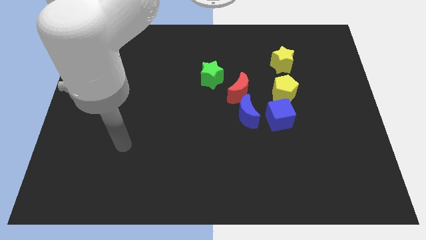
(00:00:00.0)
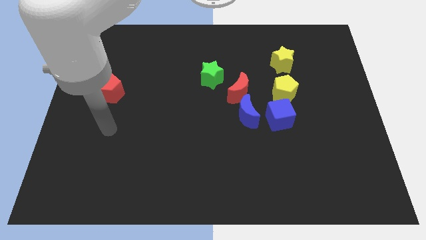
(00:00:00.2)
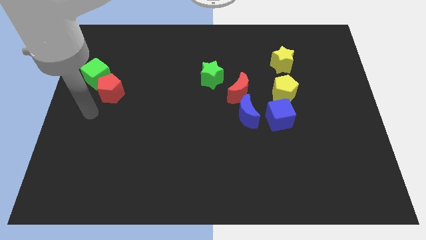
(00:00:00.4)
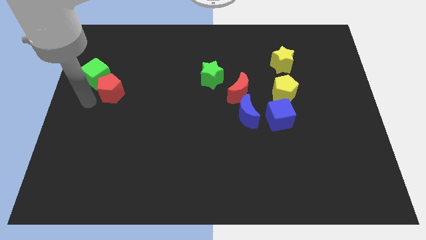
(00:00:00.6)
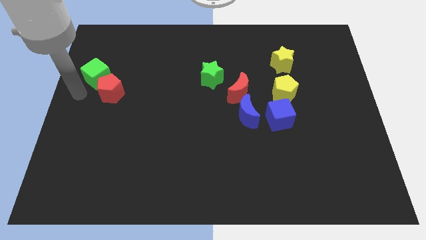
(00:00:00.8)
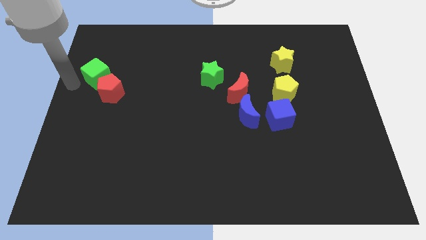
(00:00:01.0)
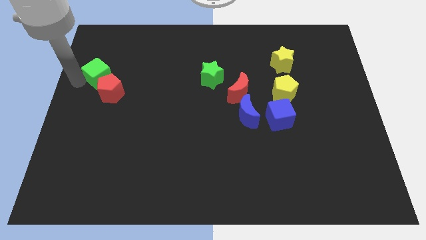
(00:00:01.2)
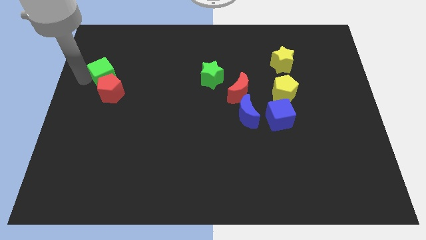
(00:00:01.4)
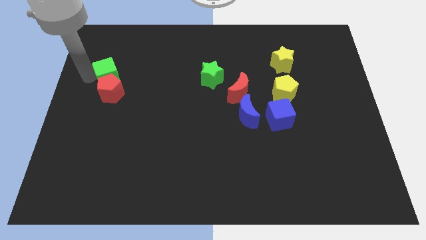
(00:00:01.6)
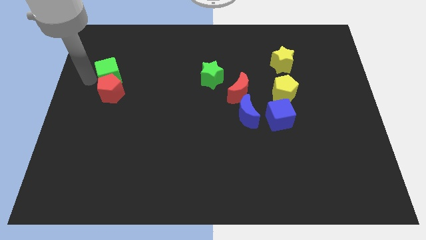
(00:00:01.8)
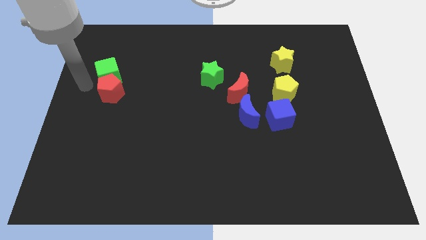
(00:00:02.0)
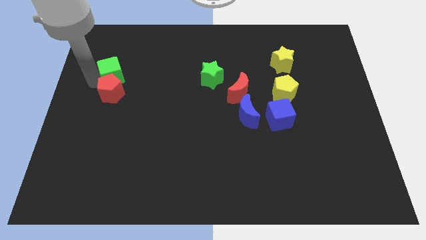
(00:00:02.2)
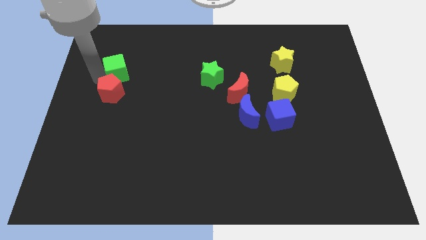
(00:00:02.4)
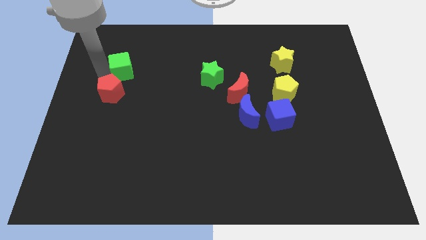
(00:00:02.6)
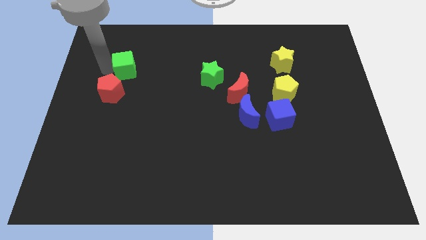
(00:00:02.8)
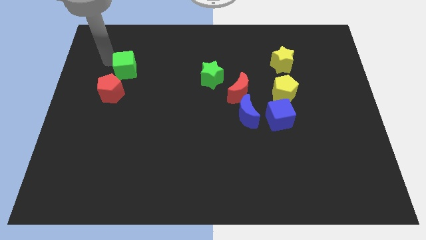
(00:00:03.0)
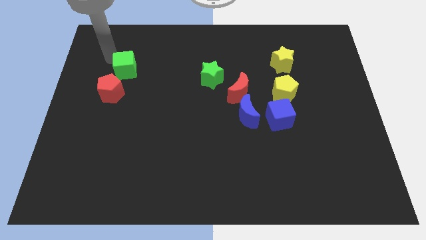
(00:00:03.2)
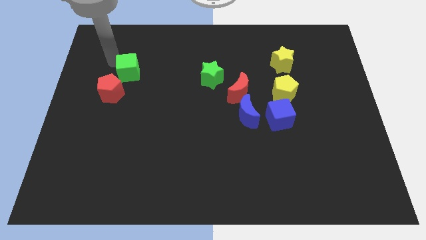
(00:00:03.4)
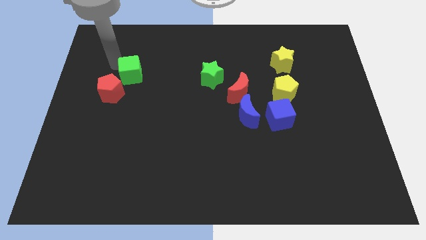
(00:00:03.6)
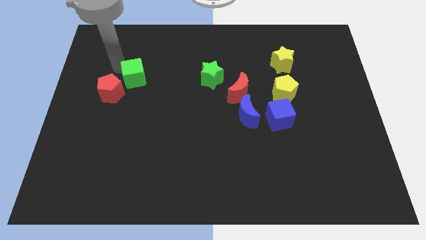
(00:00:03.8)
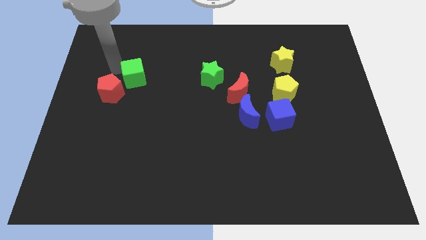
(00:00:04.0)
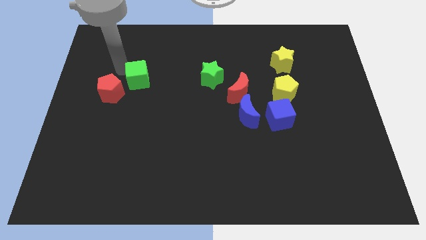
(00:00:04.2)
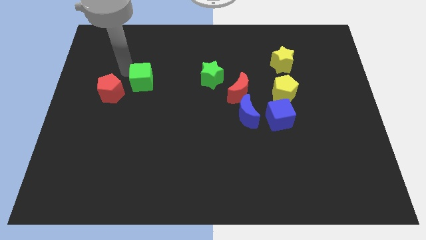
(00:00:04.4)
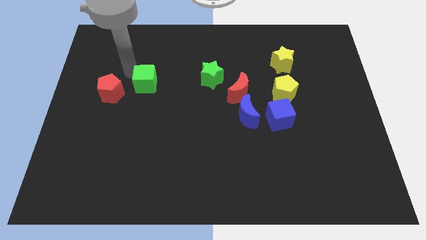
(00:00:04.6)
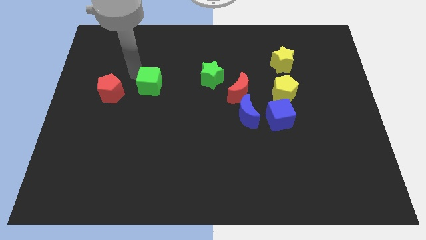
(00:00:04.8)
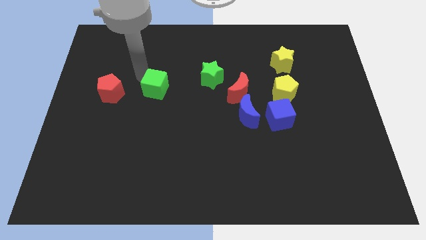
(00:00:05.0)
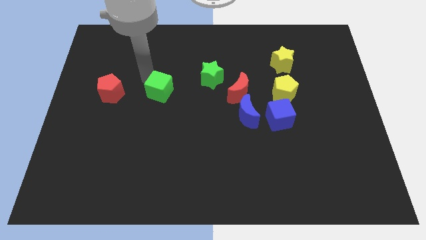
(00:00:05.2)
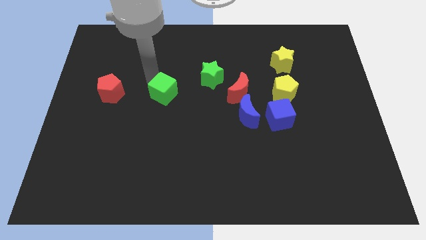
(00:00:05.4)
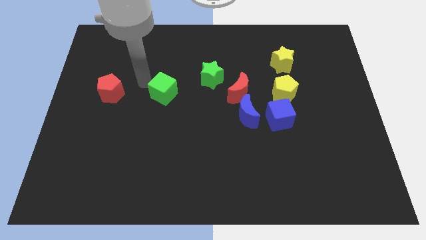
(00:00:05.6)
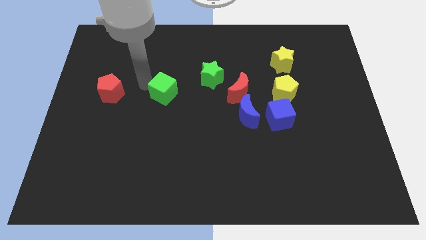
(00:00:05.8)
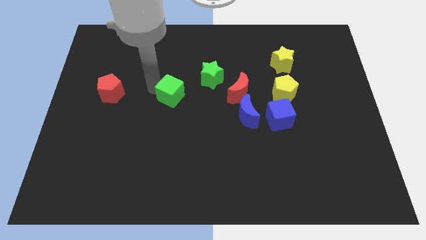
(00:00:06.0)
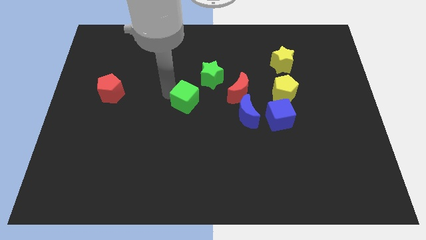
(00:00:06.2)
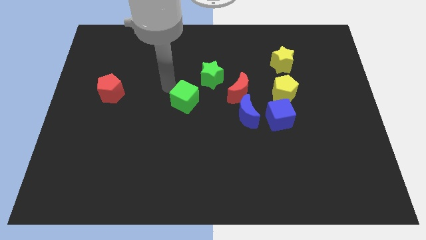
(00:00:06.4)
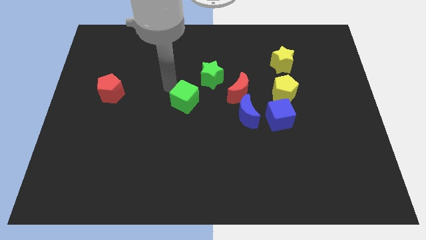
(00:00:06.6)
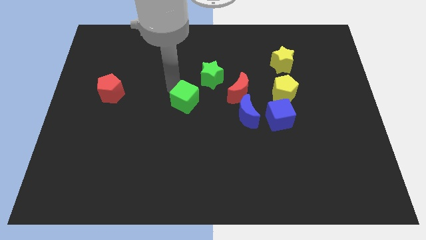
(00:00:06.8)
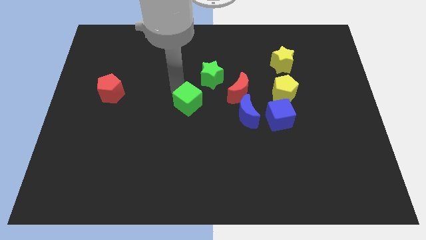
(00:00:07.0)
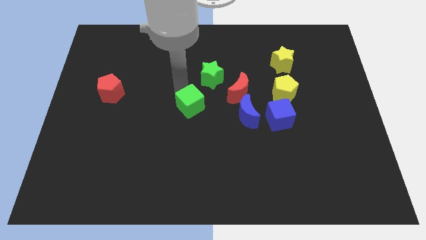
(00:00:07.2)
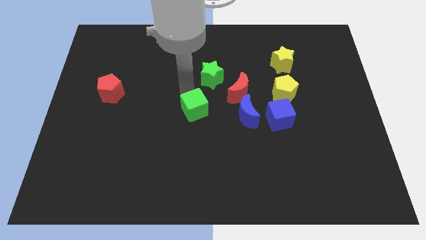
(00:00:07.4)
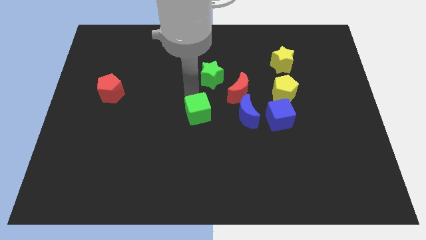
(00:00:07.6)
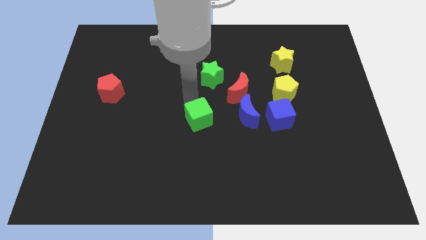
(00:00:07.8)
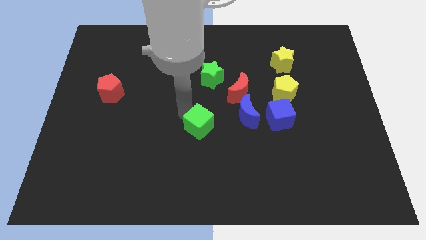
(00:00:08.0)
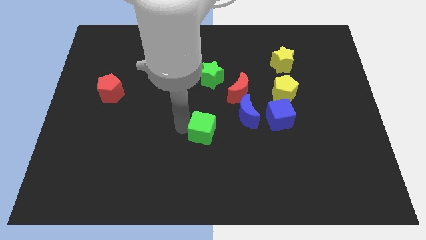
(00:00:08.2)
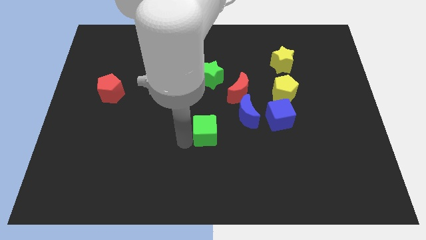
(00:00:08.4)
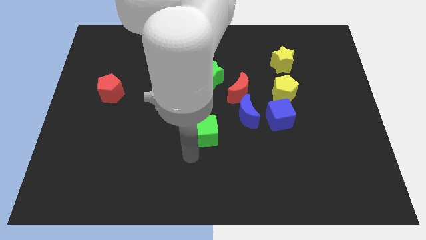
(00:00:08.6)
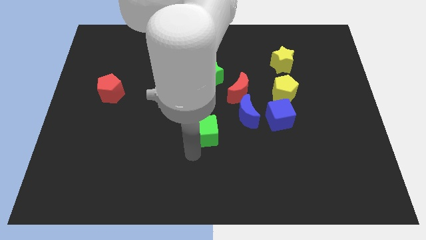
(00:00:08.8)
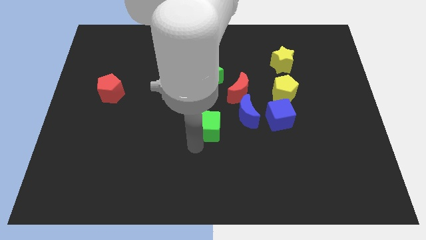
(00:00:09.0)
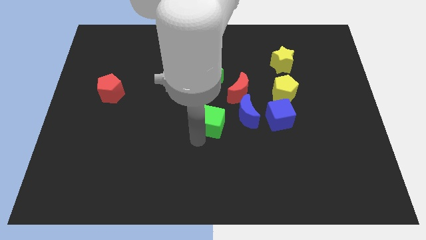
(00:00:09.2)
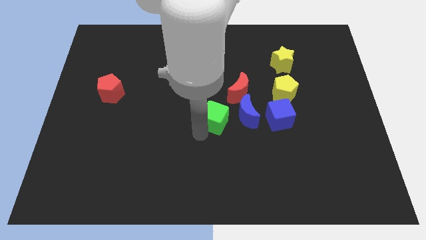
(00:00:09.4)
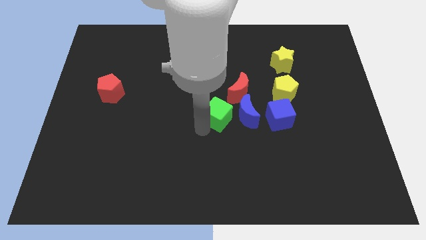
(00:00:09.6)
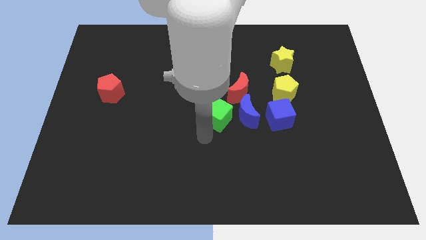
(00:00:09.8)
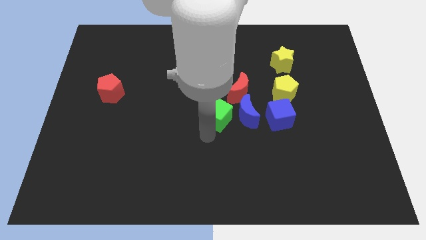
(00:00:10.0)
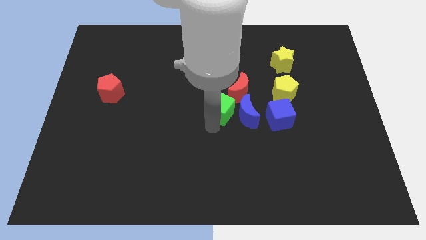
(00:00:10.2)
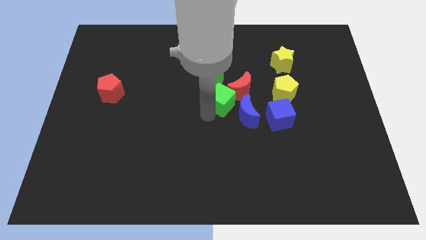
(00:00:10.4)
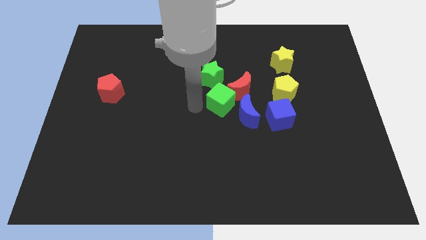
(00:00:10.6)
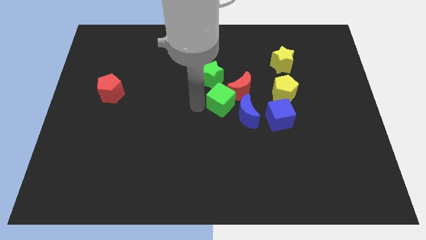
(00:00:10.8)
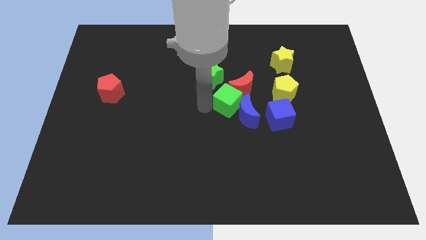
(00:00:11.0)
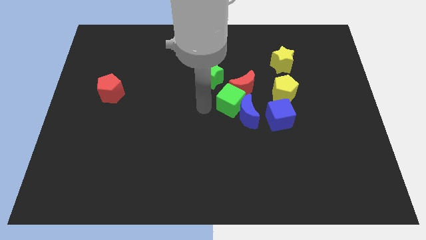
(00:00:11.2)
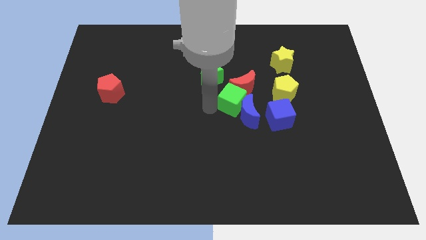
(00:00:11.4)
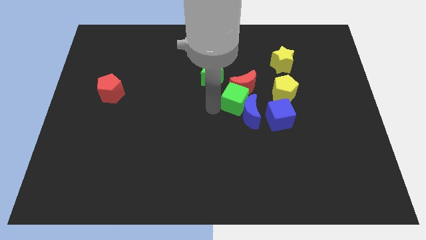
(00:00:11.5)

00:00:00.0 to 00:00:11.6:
slide the green cube to the top left of the blue cube
